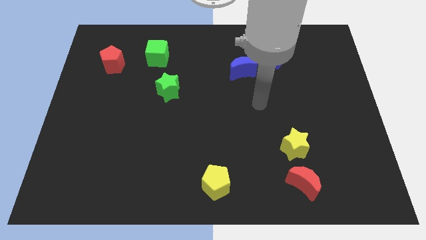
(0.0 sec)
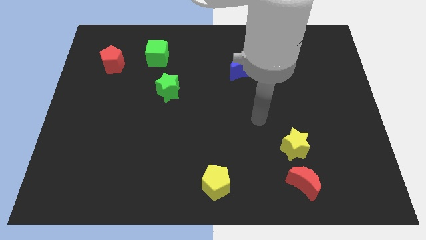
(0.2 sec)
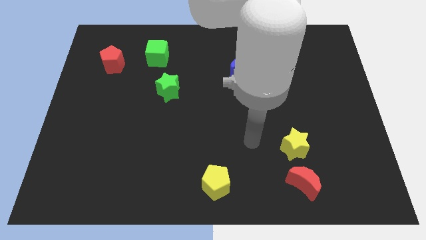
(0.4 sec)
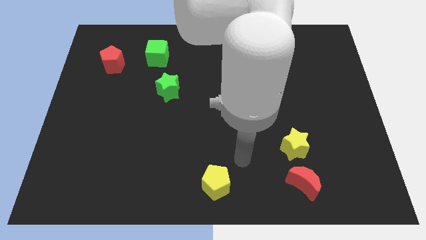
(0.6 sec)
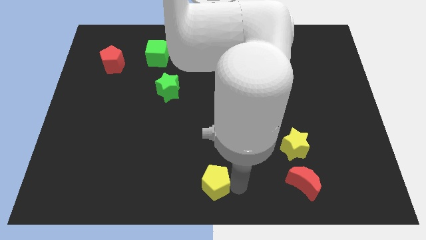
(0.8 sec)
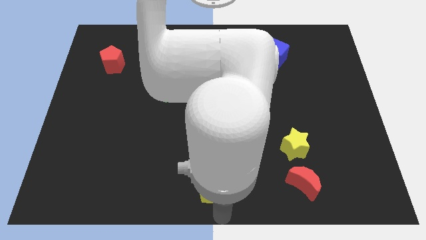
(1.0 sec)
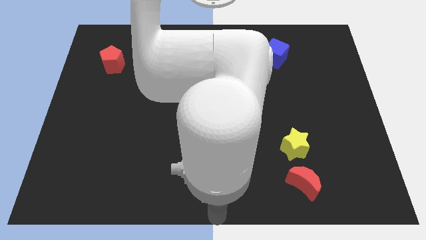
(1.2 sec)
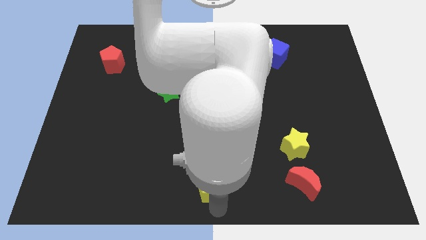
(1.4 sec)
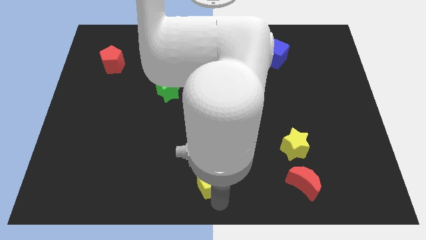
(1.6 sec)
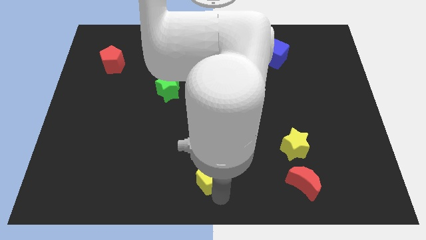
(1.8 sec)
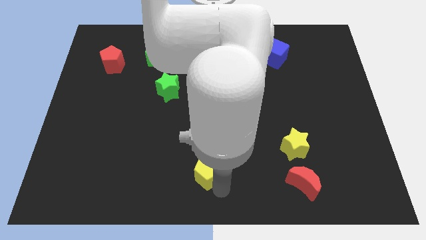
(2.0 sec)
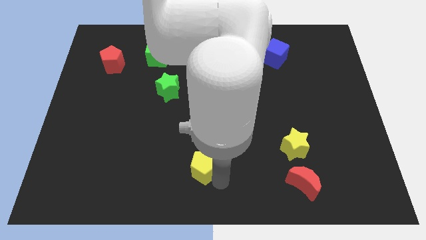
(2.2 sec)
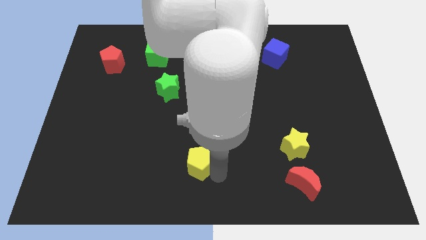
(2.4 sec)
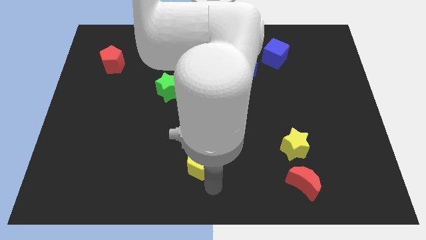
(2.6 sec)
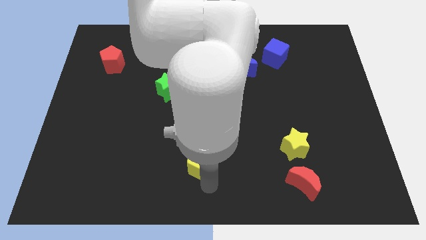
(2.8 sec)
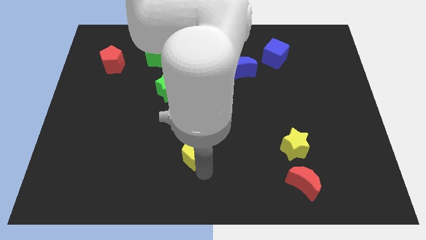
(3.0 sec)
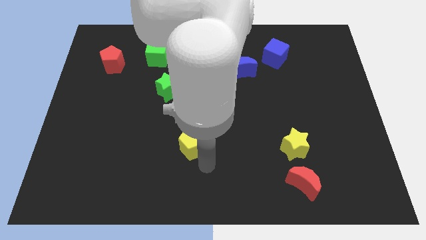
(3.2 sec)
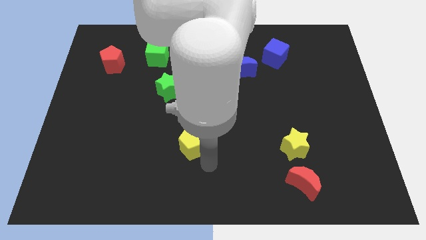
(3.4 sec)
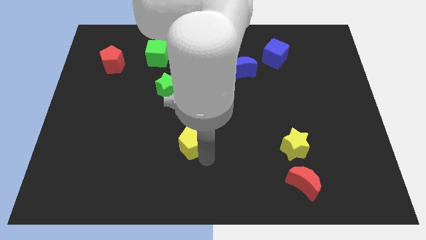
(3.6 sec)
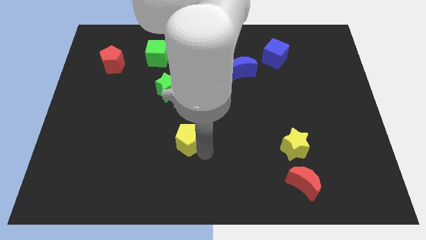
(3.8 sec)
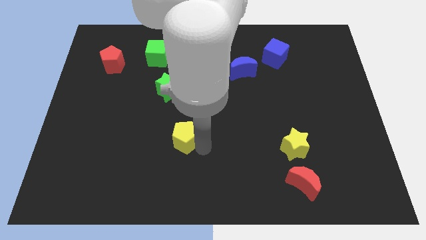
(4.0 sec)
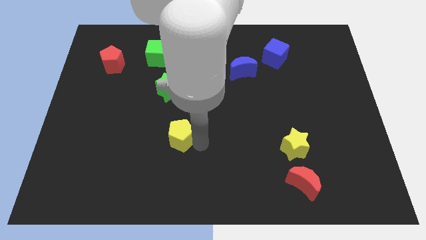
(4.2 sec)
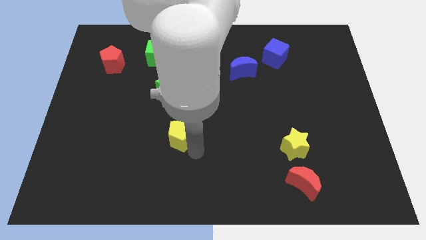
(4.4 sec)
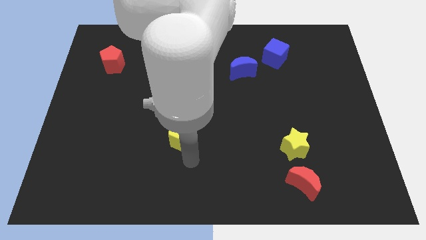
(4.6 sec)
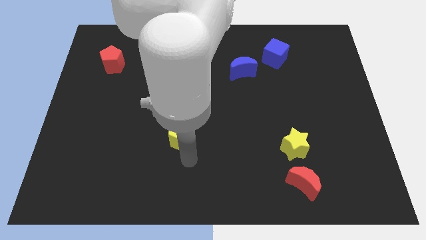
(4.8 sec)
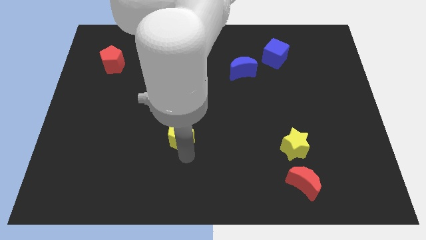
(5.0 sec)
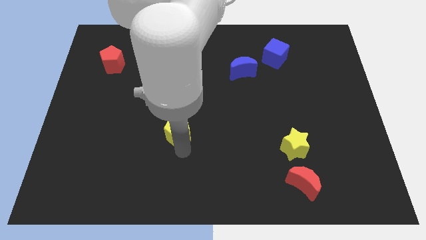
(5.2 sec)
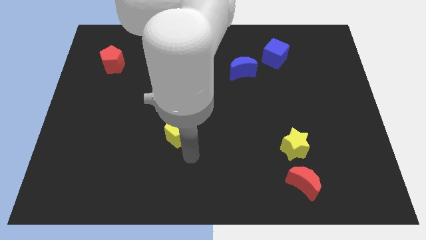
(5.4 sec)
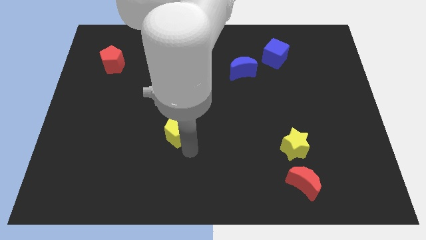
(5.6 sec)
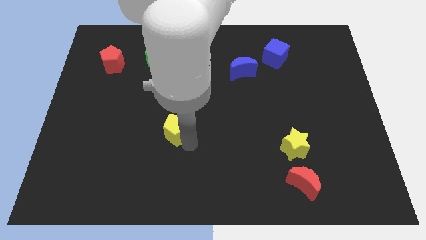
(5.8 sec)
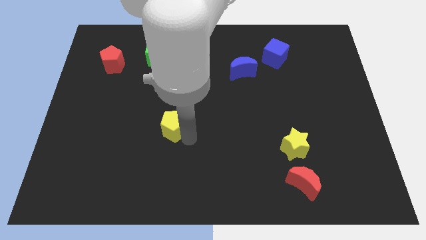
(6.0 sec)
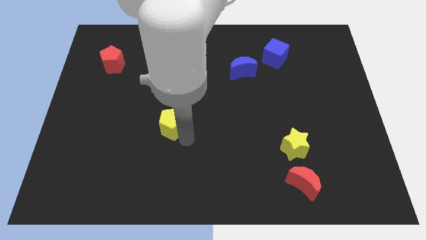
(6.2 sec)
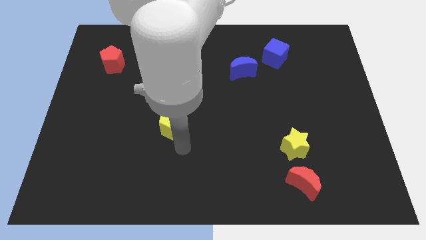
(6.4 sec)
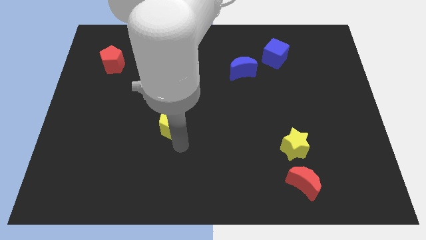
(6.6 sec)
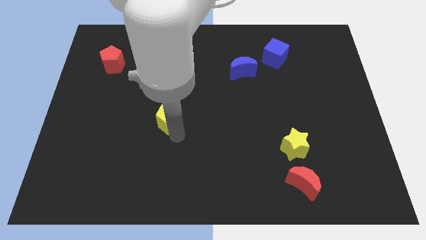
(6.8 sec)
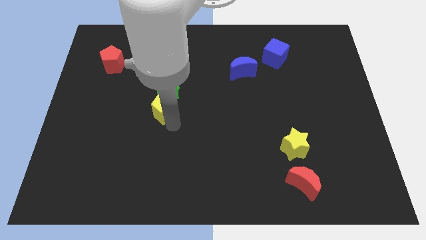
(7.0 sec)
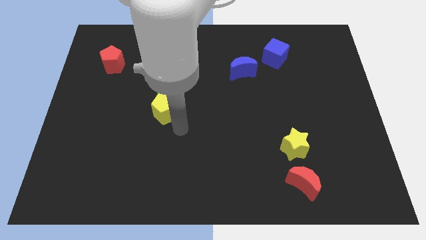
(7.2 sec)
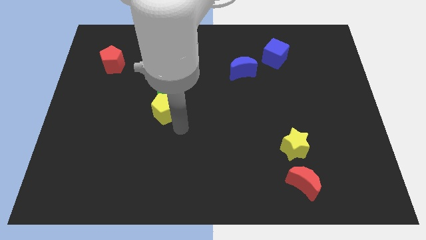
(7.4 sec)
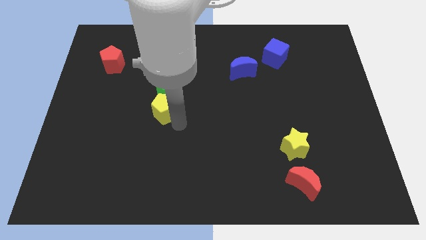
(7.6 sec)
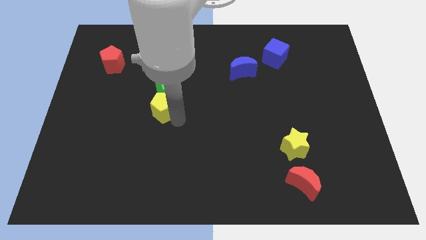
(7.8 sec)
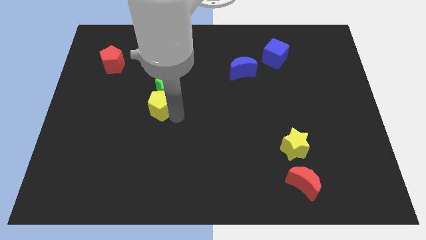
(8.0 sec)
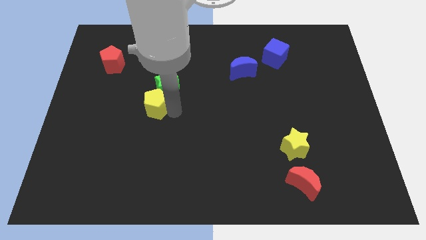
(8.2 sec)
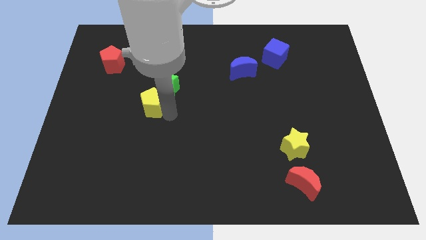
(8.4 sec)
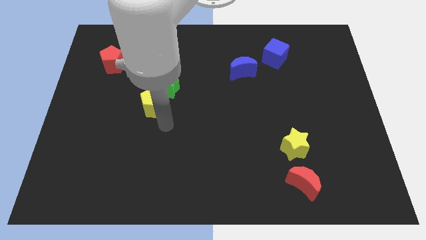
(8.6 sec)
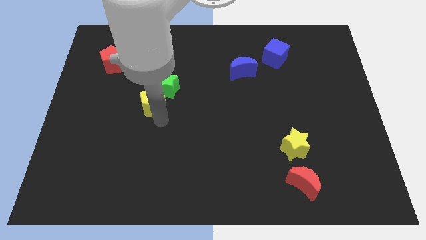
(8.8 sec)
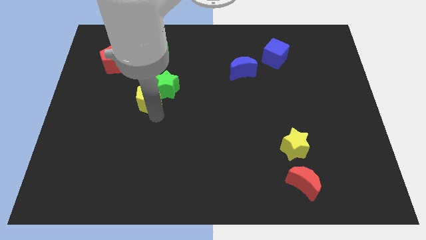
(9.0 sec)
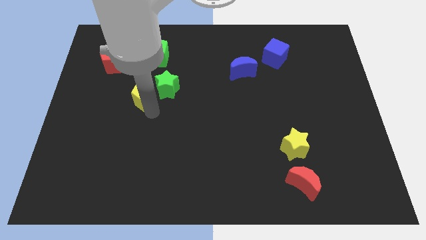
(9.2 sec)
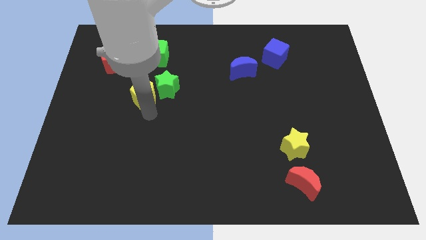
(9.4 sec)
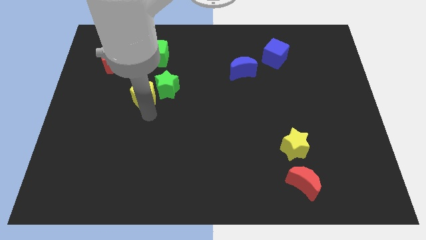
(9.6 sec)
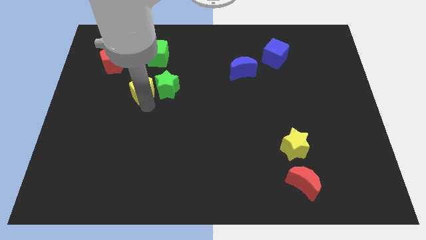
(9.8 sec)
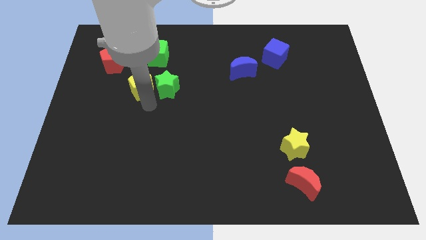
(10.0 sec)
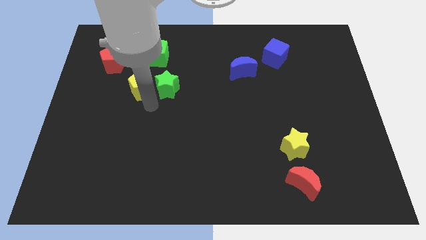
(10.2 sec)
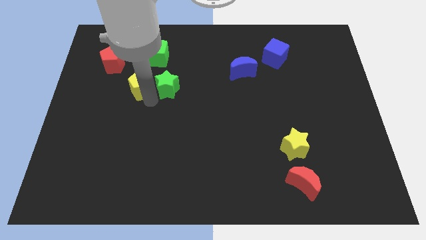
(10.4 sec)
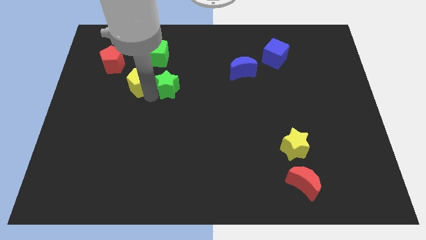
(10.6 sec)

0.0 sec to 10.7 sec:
put the yellow pentagon diagonally down and to the left of the green cube

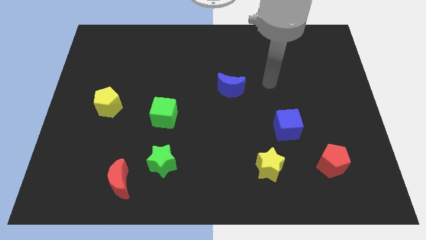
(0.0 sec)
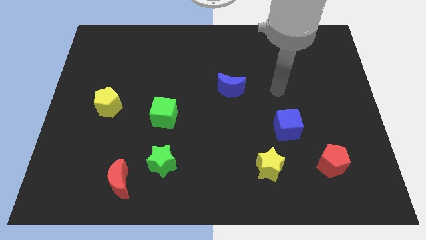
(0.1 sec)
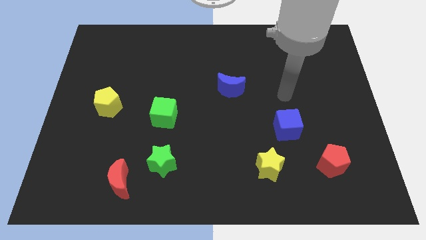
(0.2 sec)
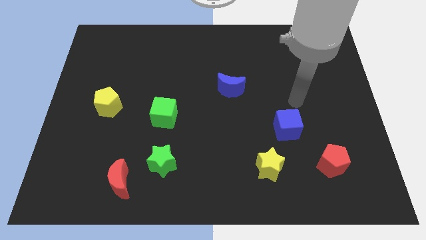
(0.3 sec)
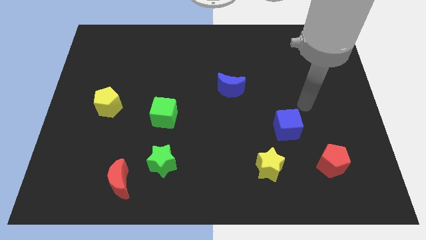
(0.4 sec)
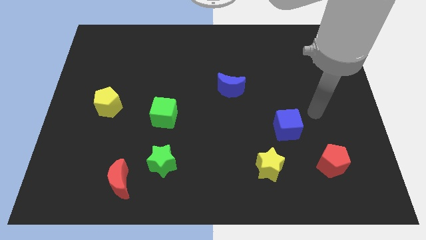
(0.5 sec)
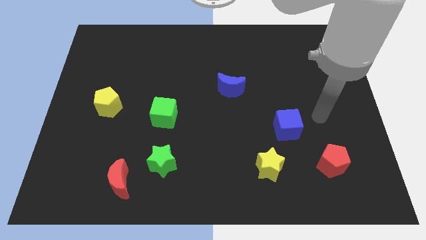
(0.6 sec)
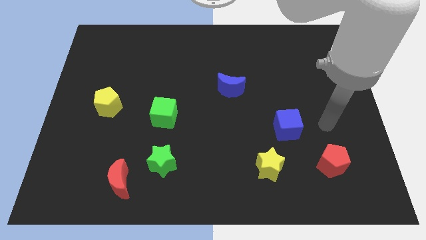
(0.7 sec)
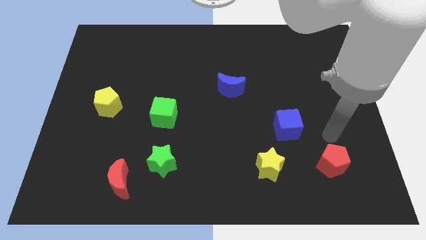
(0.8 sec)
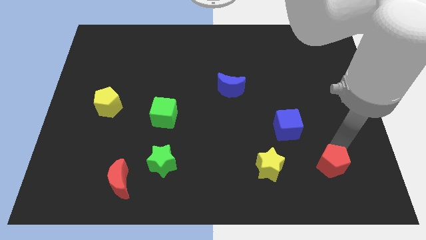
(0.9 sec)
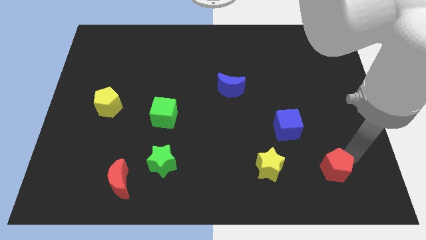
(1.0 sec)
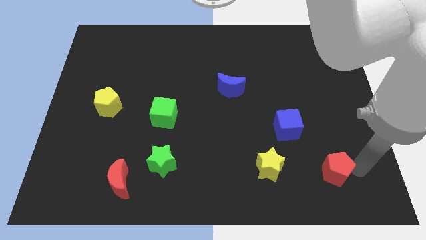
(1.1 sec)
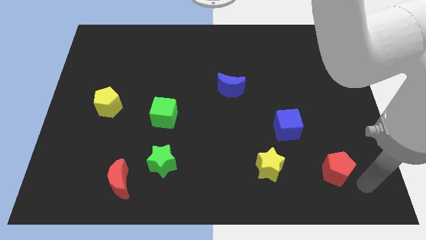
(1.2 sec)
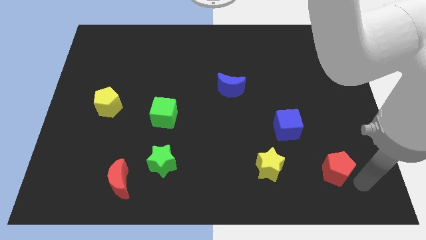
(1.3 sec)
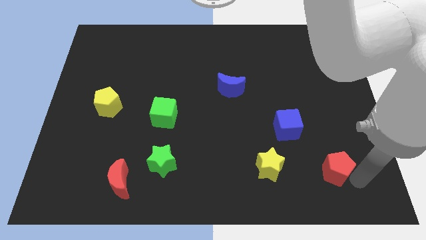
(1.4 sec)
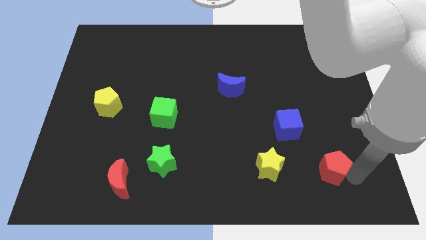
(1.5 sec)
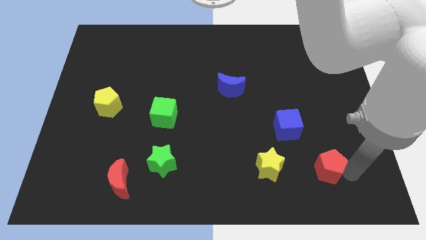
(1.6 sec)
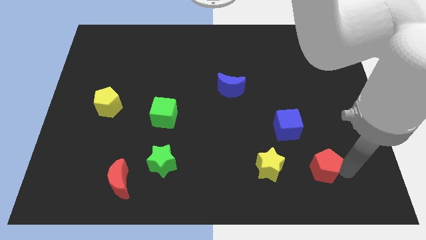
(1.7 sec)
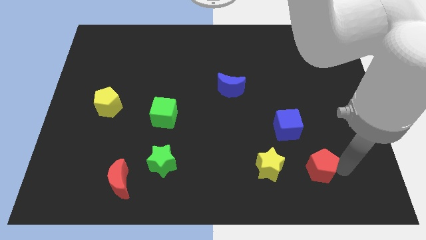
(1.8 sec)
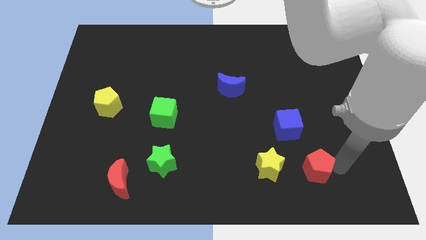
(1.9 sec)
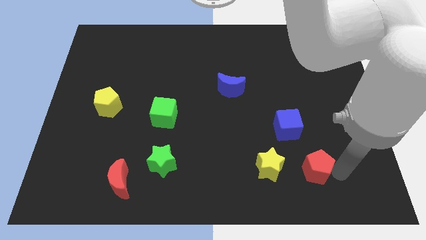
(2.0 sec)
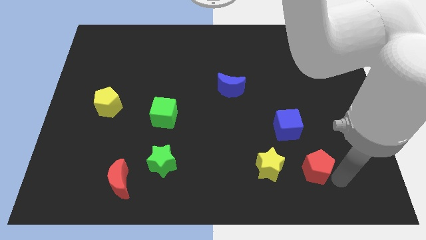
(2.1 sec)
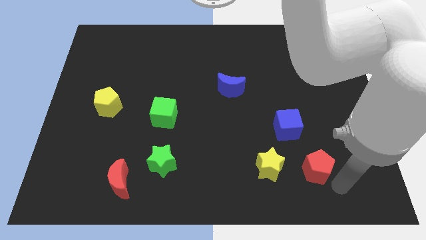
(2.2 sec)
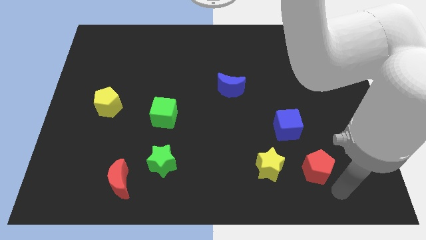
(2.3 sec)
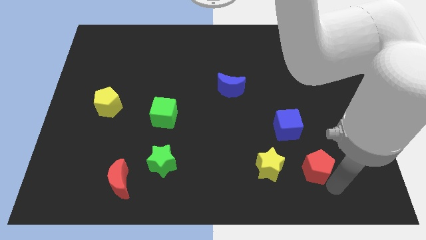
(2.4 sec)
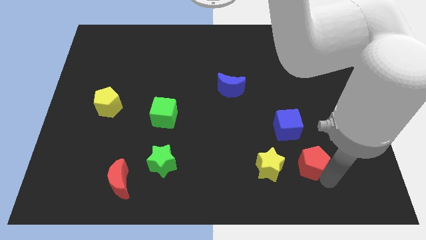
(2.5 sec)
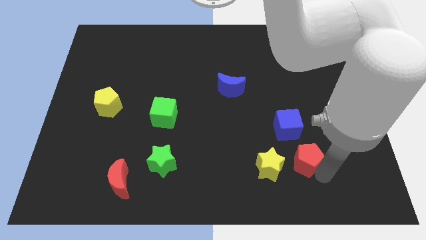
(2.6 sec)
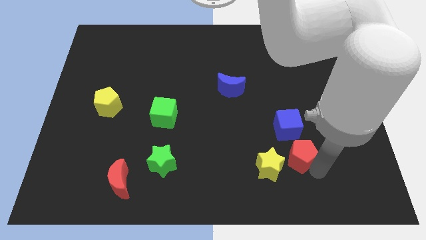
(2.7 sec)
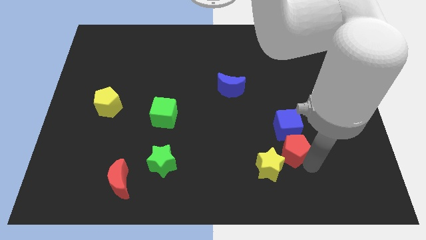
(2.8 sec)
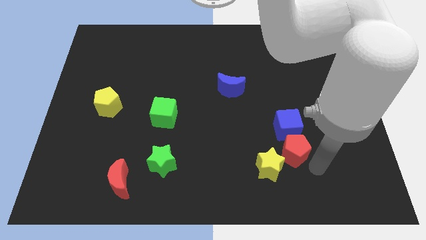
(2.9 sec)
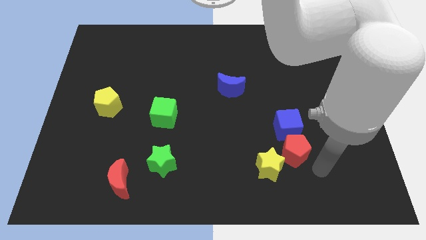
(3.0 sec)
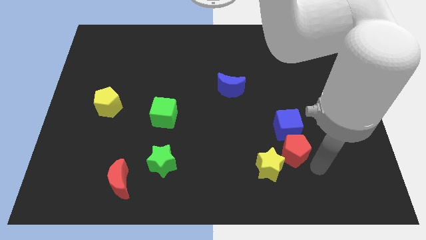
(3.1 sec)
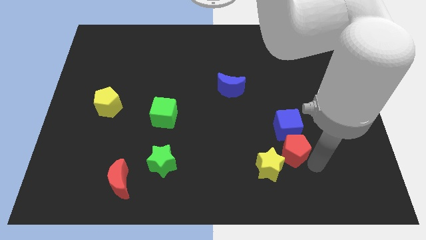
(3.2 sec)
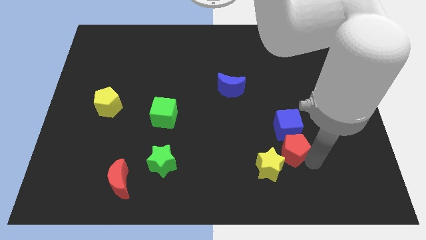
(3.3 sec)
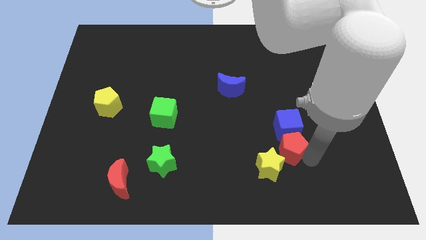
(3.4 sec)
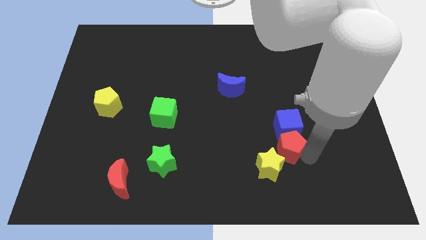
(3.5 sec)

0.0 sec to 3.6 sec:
put the red pentagon to the top of the yellow star
